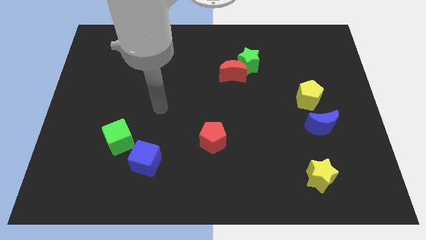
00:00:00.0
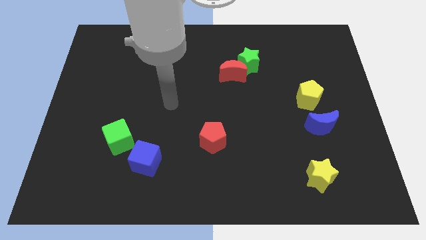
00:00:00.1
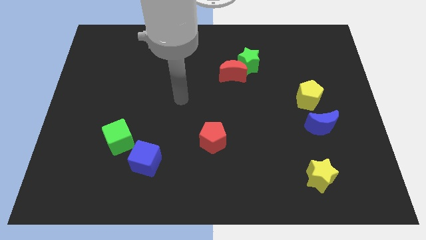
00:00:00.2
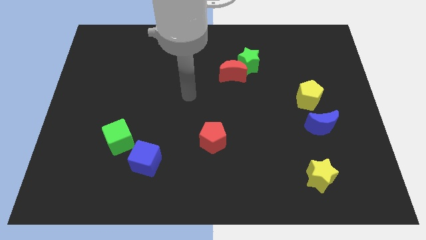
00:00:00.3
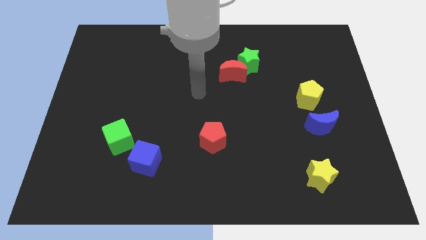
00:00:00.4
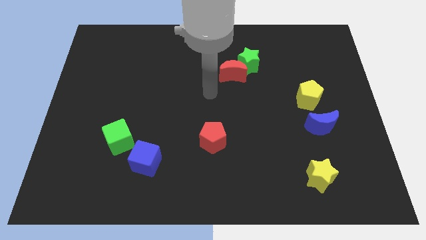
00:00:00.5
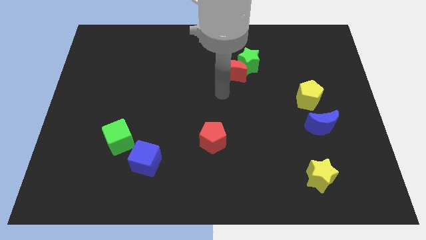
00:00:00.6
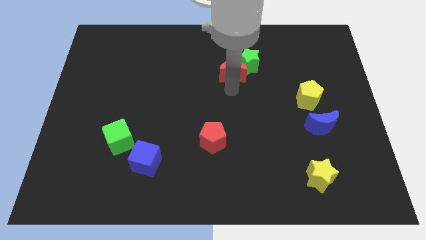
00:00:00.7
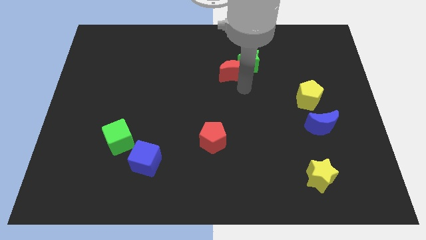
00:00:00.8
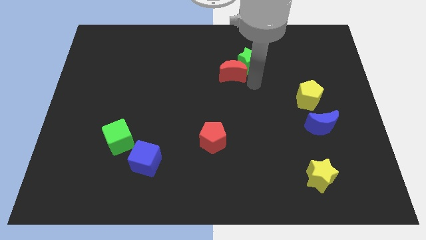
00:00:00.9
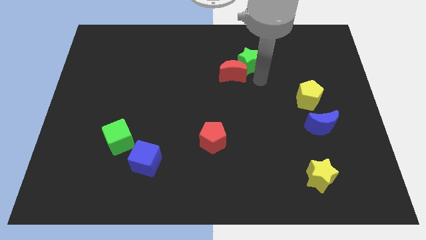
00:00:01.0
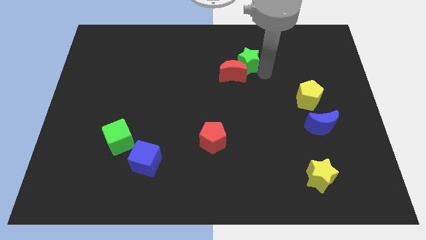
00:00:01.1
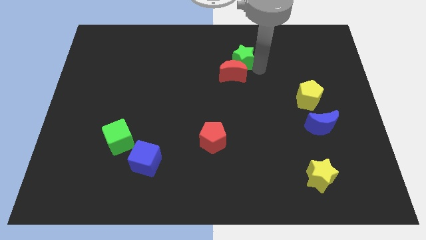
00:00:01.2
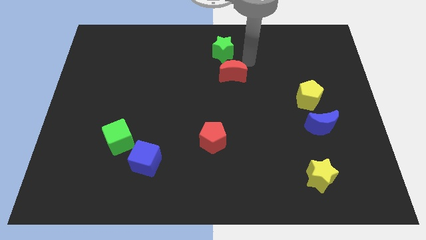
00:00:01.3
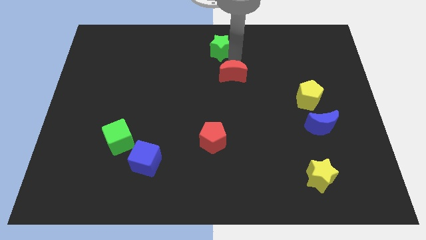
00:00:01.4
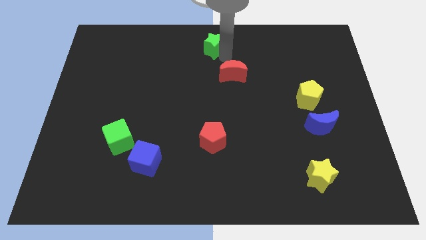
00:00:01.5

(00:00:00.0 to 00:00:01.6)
separate the red moon from the green star

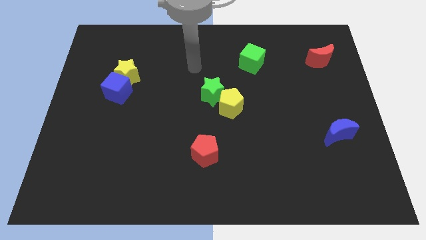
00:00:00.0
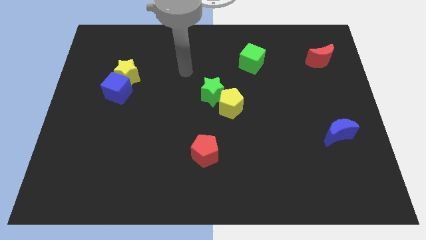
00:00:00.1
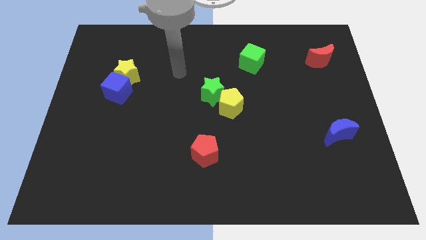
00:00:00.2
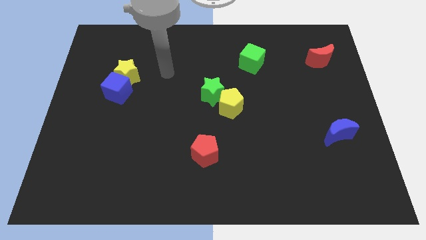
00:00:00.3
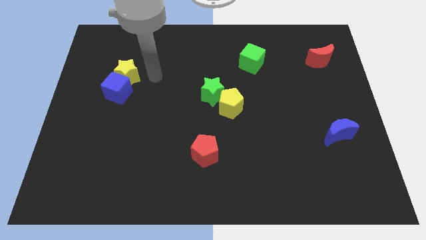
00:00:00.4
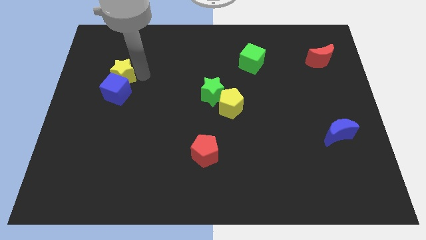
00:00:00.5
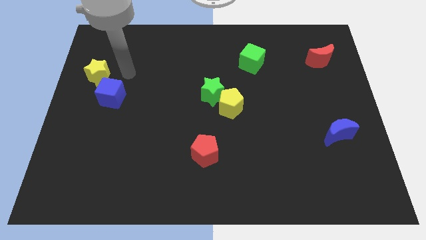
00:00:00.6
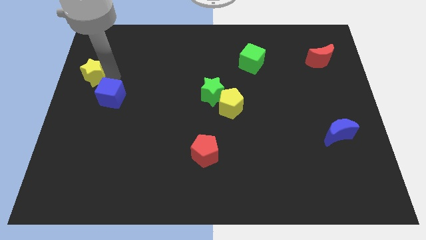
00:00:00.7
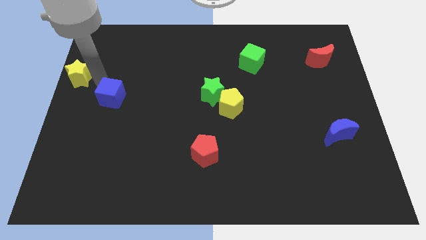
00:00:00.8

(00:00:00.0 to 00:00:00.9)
move the blue cube away from the yellow star

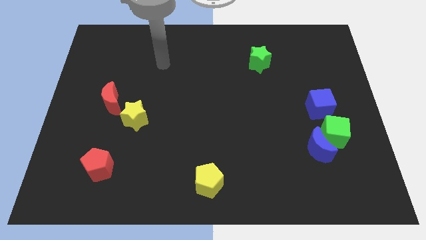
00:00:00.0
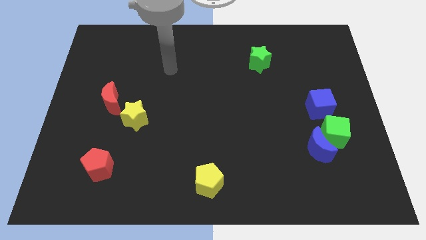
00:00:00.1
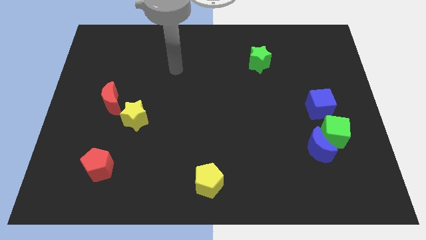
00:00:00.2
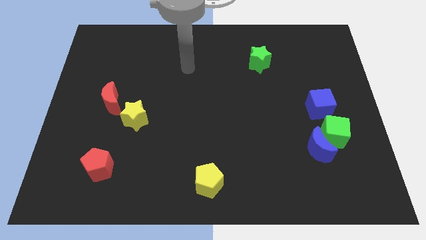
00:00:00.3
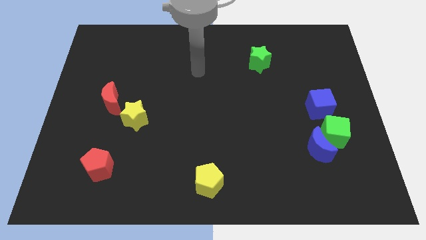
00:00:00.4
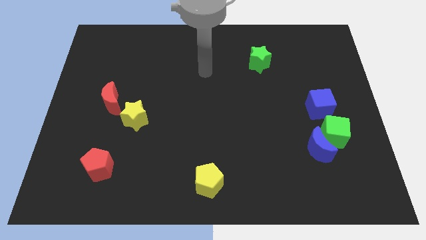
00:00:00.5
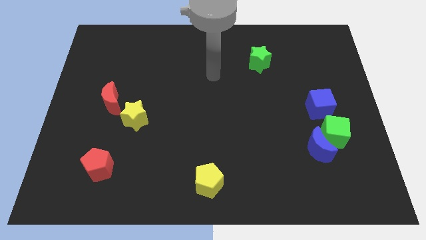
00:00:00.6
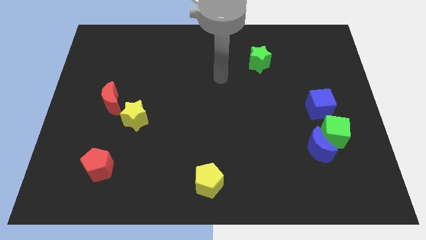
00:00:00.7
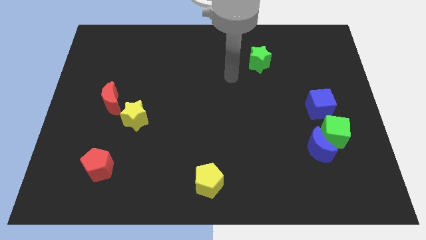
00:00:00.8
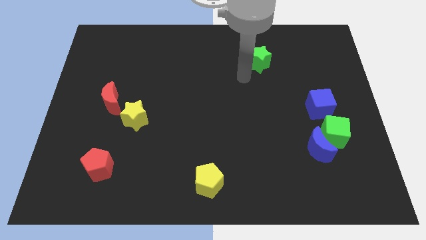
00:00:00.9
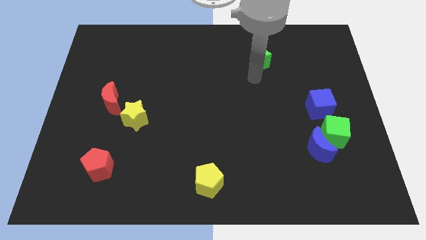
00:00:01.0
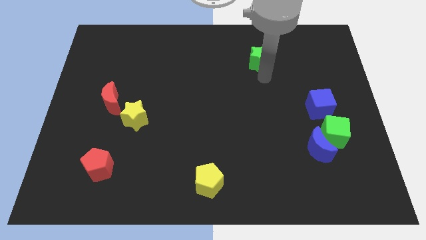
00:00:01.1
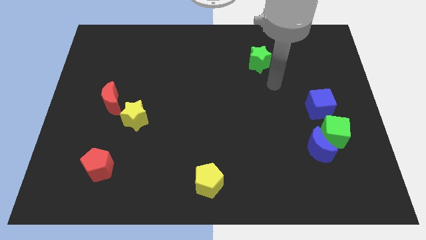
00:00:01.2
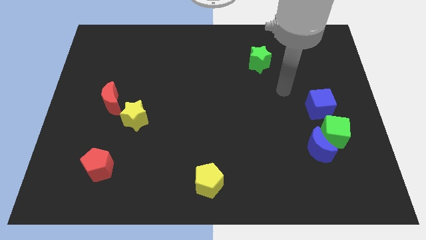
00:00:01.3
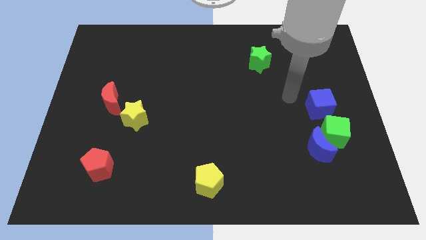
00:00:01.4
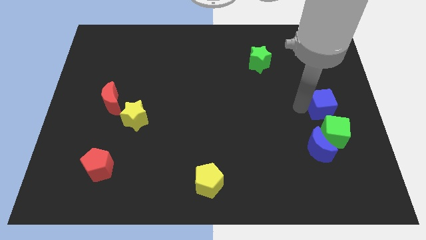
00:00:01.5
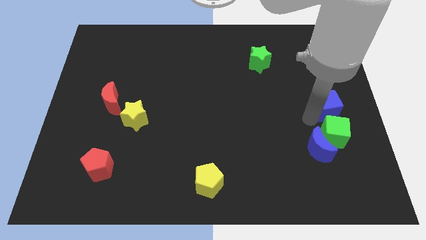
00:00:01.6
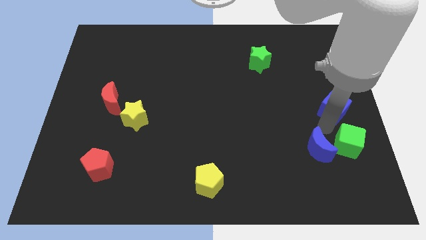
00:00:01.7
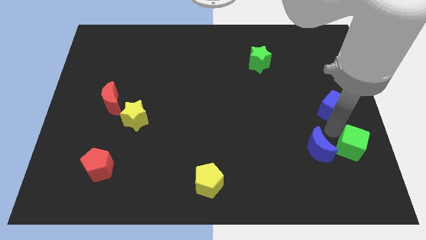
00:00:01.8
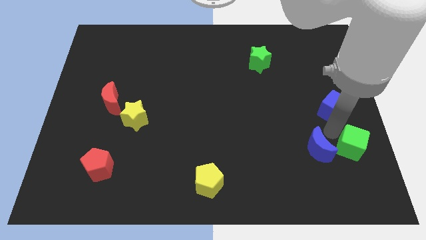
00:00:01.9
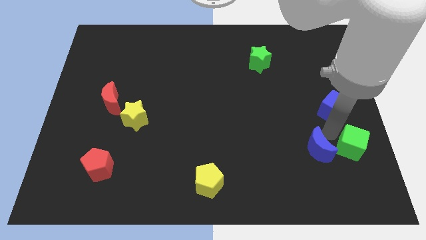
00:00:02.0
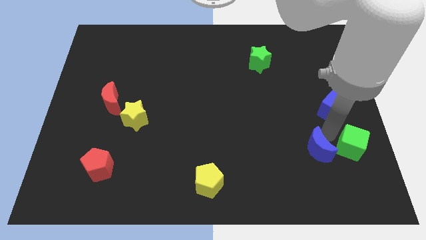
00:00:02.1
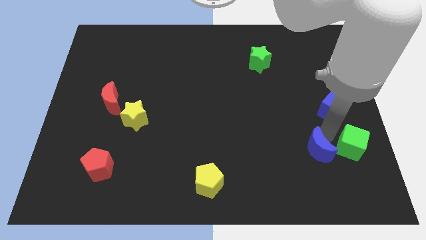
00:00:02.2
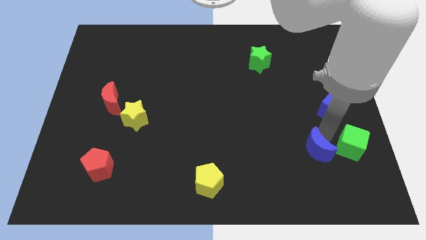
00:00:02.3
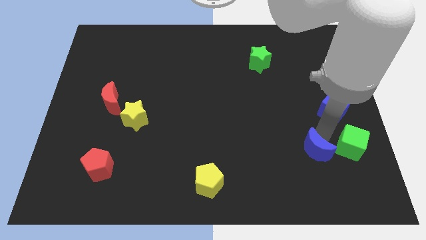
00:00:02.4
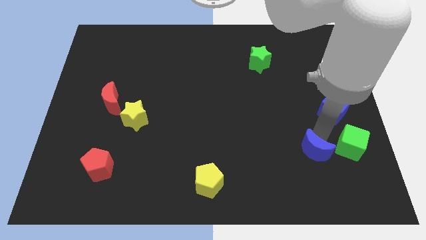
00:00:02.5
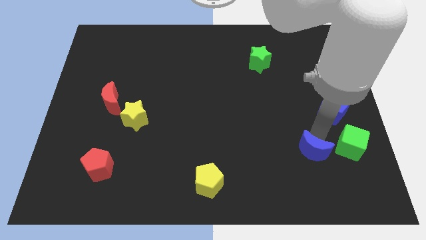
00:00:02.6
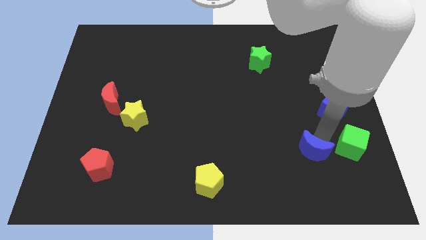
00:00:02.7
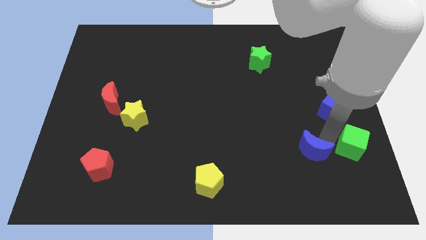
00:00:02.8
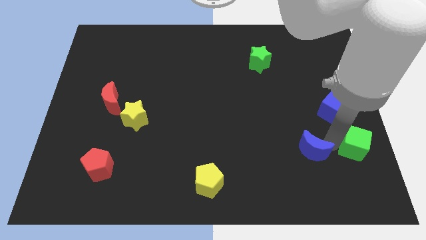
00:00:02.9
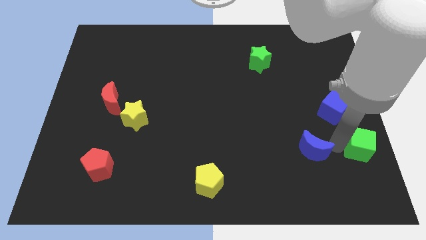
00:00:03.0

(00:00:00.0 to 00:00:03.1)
move the blue moon away from the green cube

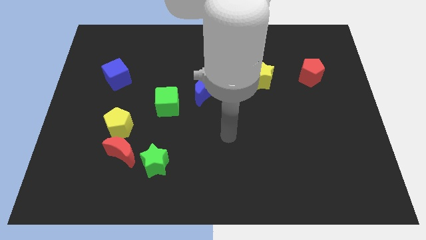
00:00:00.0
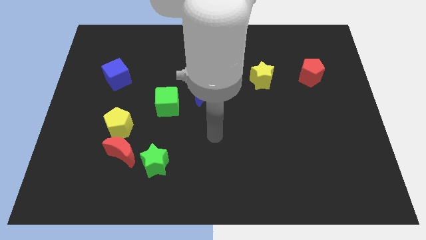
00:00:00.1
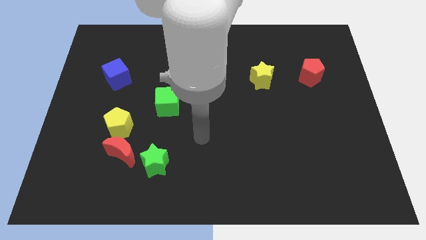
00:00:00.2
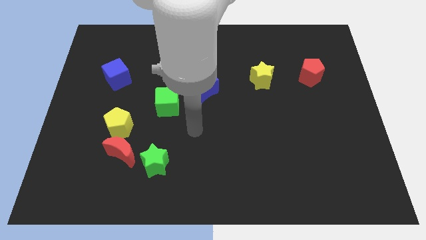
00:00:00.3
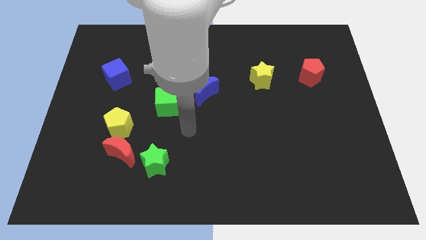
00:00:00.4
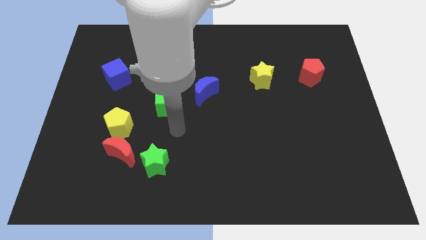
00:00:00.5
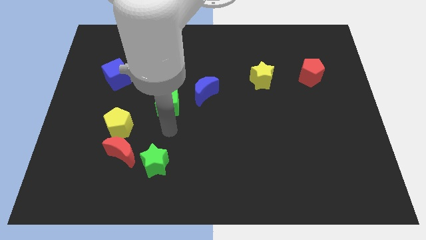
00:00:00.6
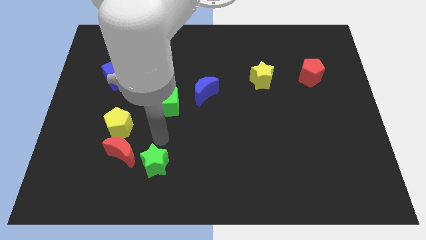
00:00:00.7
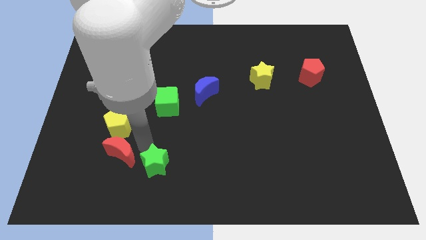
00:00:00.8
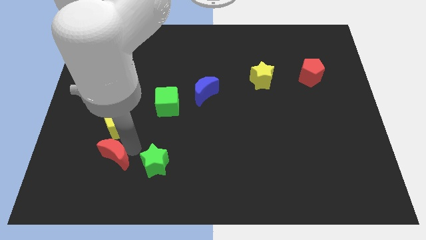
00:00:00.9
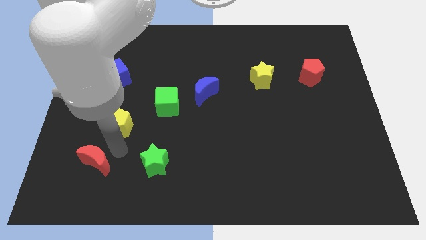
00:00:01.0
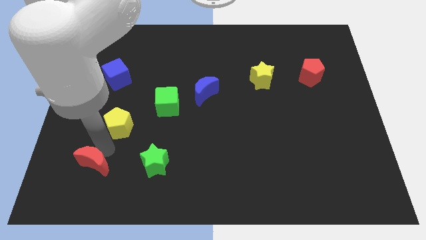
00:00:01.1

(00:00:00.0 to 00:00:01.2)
pull the yellow pentagon apart from the red moon

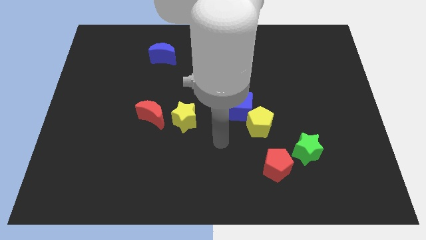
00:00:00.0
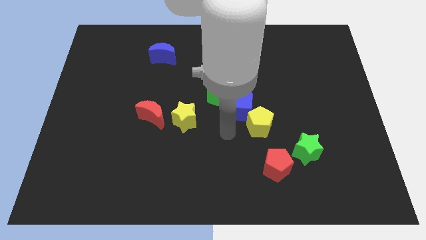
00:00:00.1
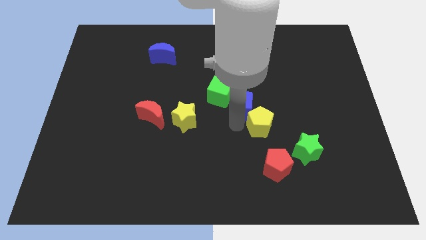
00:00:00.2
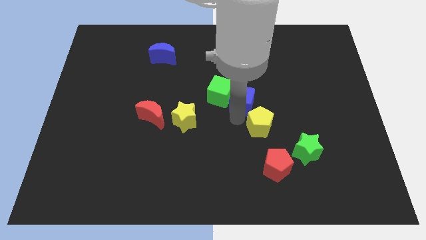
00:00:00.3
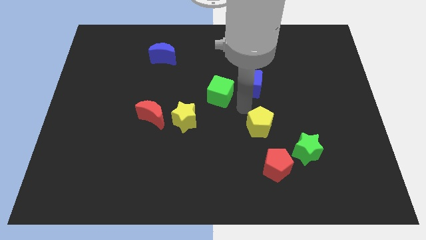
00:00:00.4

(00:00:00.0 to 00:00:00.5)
separate the yellow pentagon from the blue cube

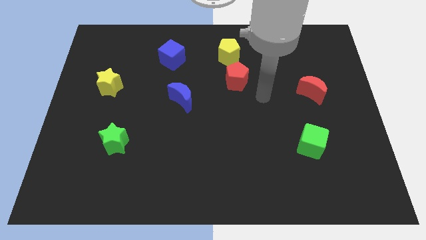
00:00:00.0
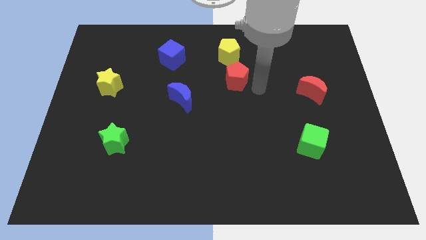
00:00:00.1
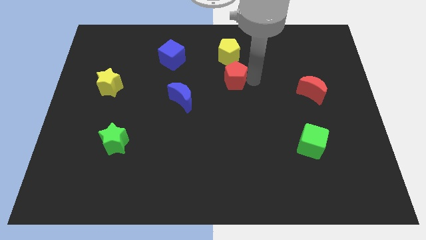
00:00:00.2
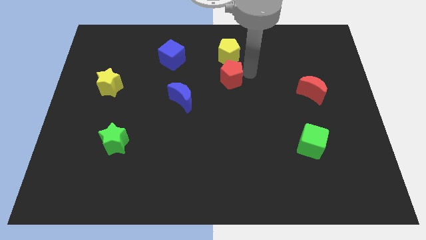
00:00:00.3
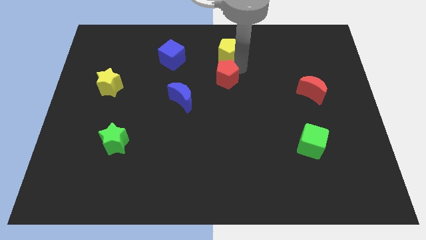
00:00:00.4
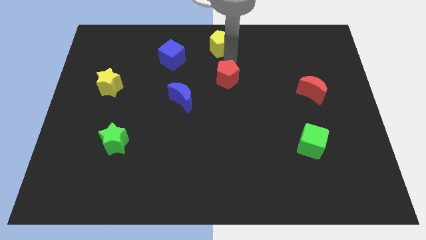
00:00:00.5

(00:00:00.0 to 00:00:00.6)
separate the red pentagon from the yellow pentagon

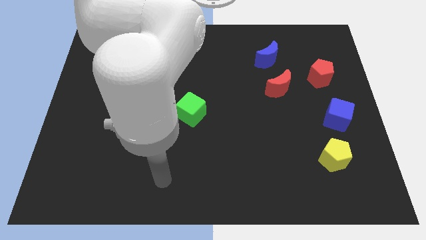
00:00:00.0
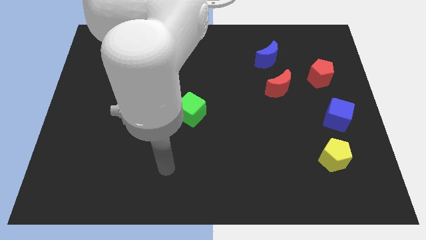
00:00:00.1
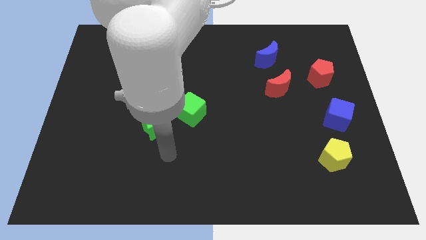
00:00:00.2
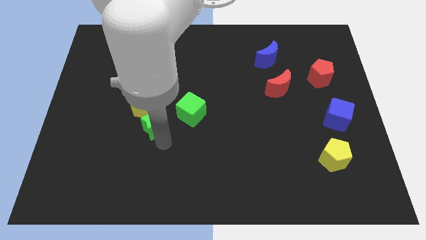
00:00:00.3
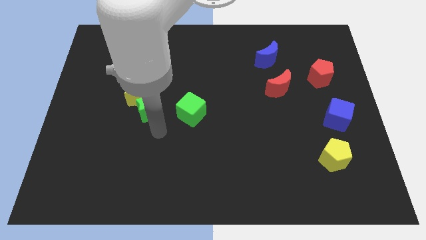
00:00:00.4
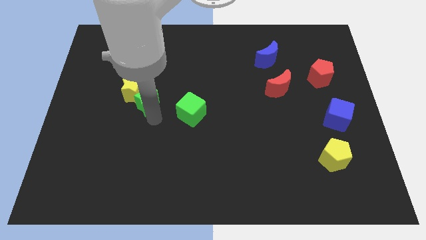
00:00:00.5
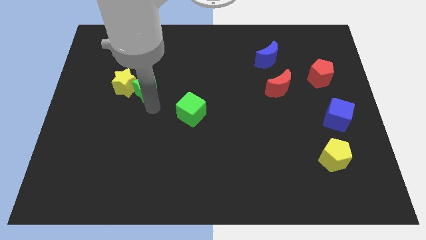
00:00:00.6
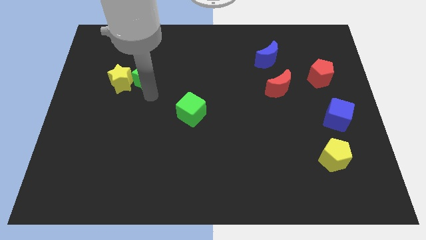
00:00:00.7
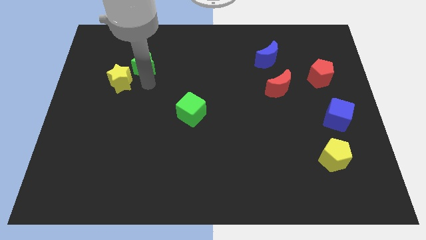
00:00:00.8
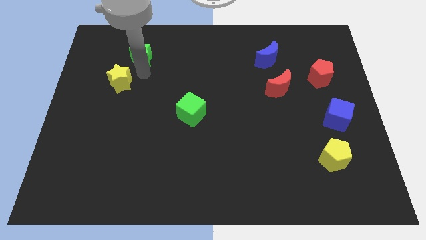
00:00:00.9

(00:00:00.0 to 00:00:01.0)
separate the yellow star from the green star

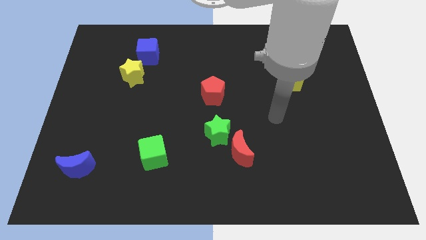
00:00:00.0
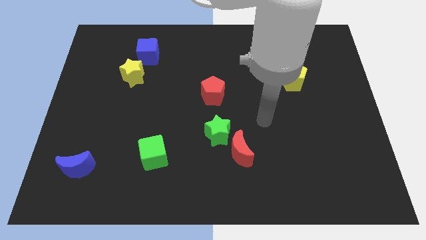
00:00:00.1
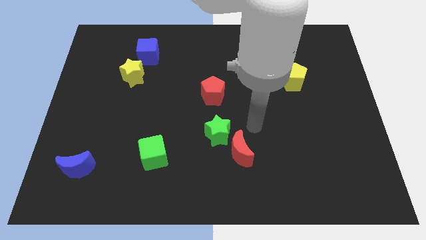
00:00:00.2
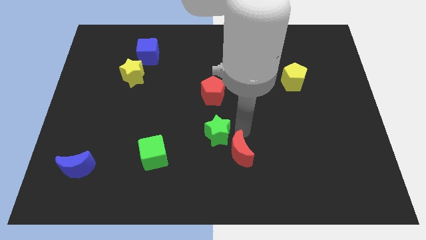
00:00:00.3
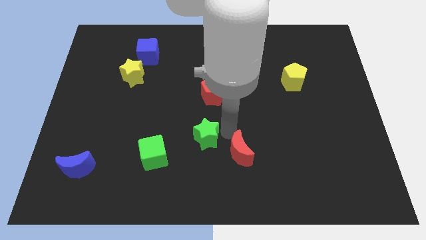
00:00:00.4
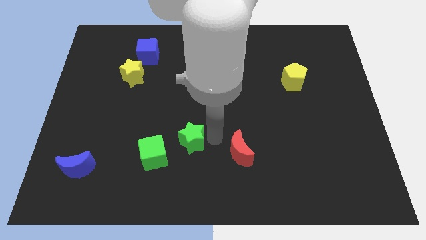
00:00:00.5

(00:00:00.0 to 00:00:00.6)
pull the red moon apart from the green star
